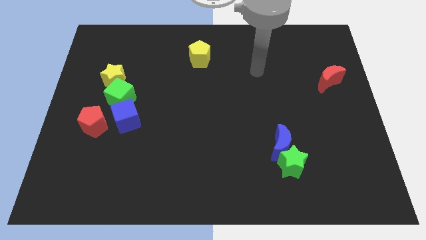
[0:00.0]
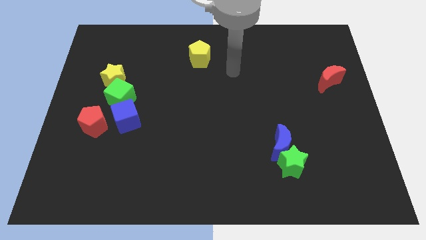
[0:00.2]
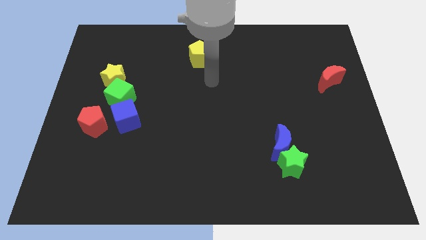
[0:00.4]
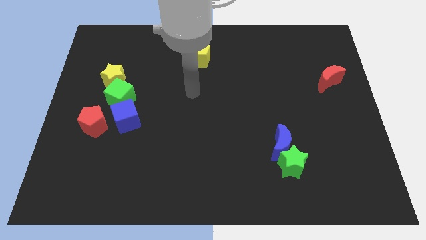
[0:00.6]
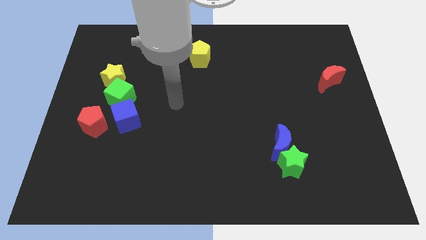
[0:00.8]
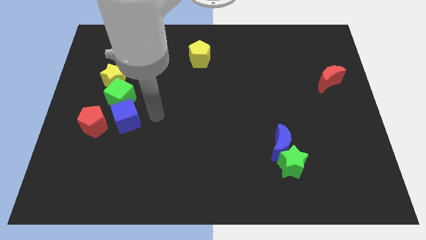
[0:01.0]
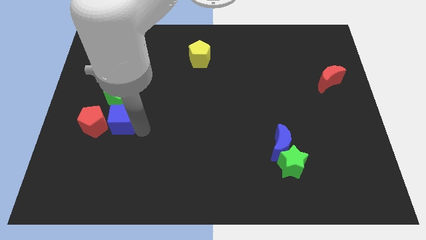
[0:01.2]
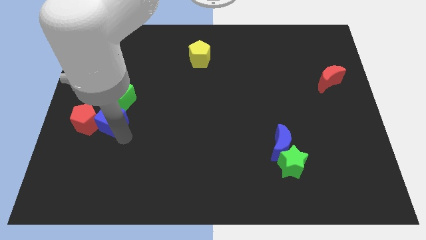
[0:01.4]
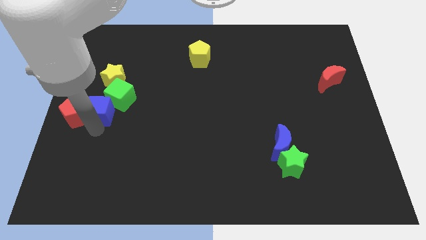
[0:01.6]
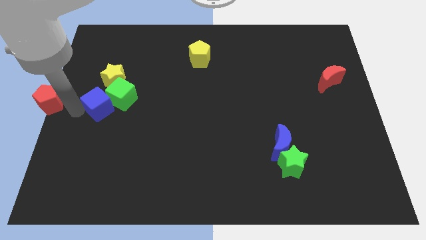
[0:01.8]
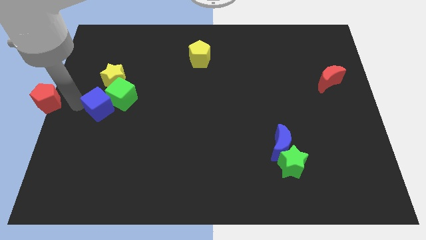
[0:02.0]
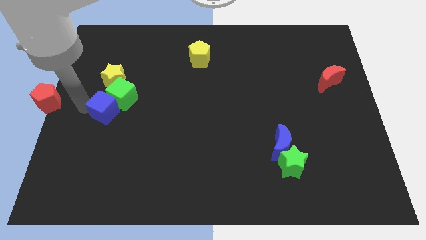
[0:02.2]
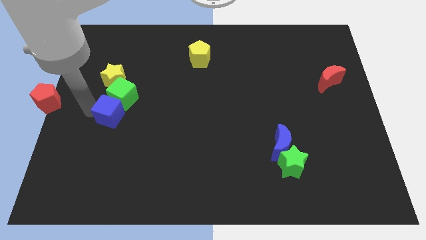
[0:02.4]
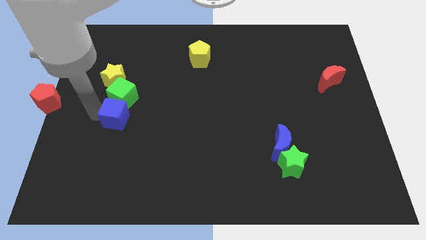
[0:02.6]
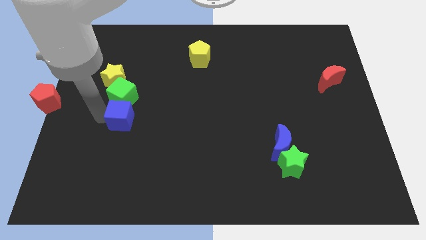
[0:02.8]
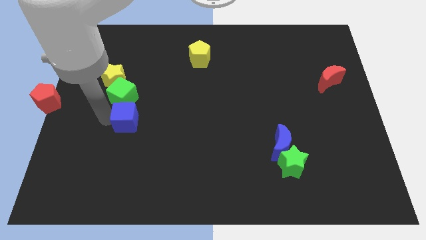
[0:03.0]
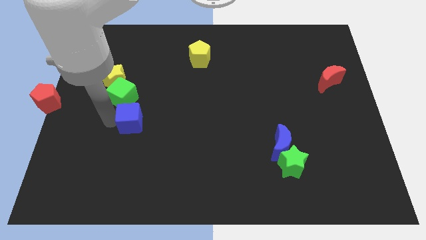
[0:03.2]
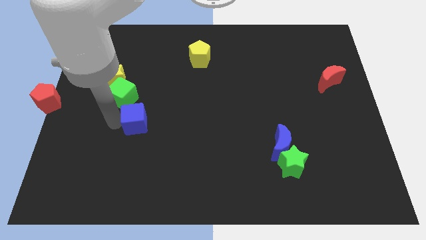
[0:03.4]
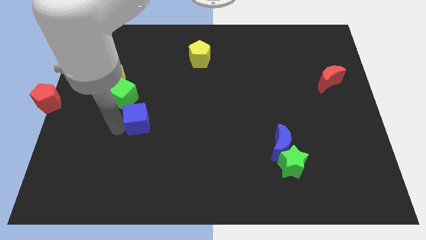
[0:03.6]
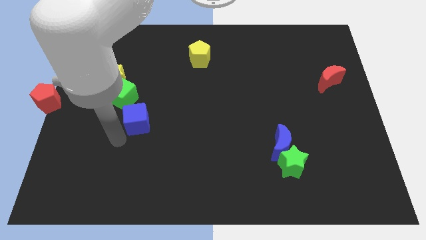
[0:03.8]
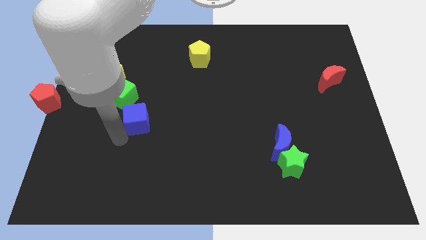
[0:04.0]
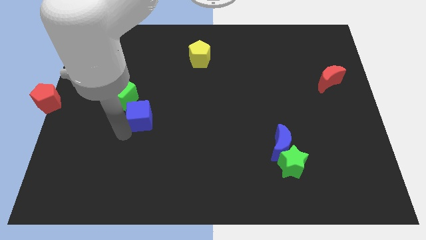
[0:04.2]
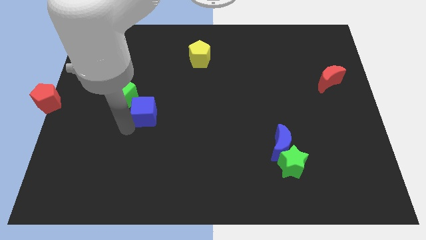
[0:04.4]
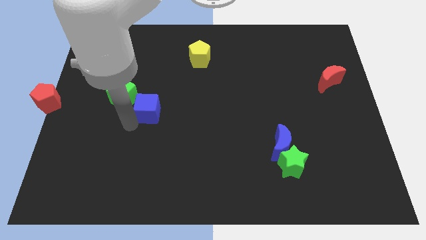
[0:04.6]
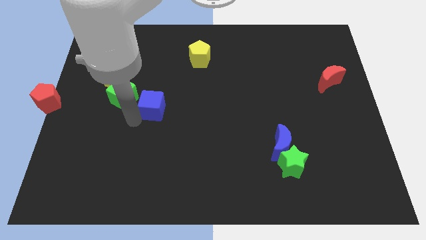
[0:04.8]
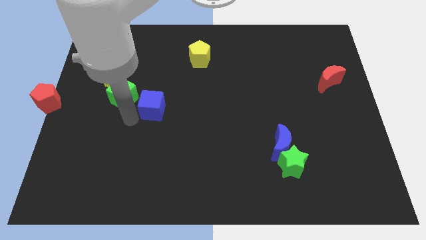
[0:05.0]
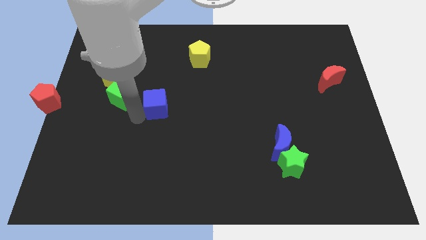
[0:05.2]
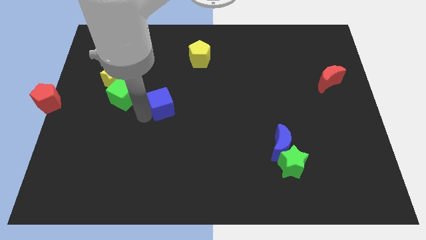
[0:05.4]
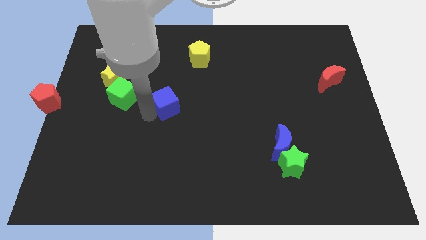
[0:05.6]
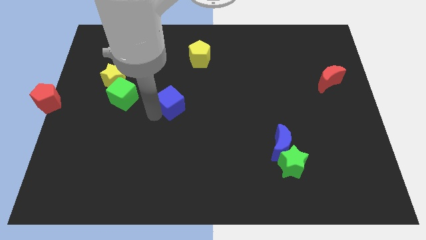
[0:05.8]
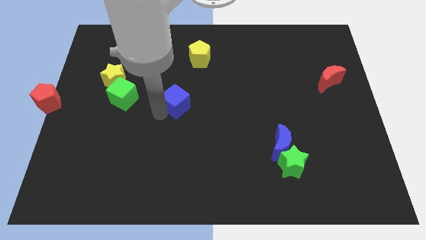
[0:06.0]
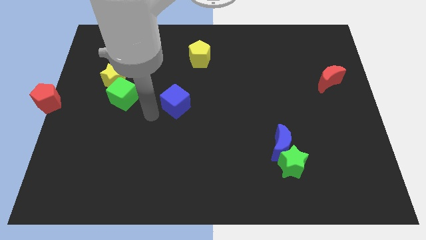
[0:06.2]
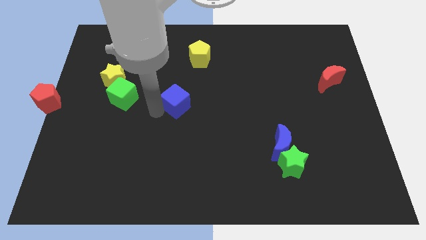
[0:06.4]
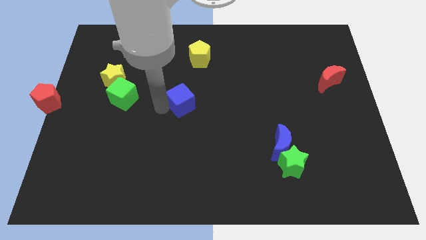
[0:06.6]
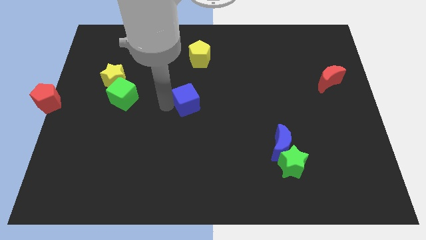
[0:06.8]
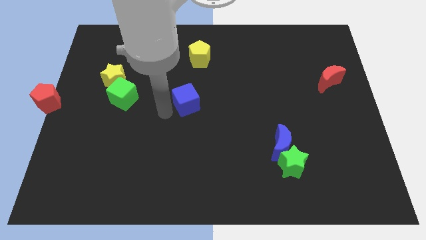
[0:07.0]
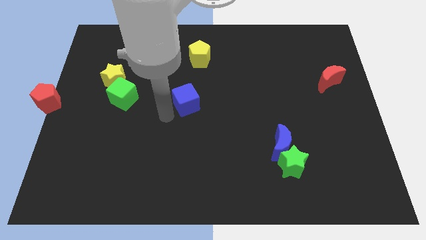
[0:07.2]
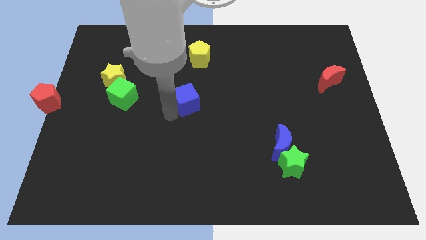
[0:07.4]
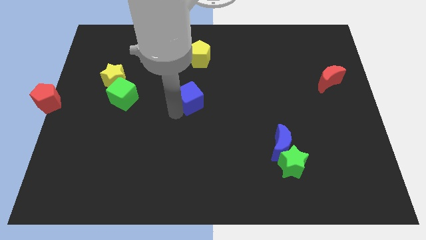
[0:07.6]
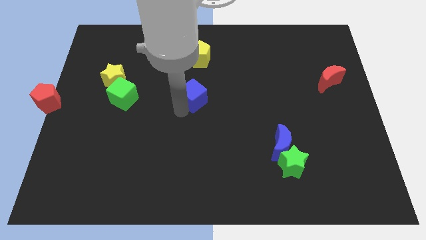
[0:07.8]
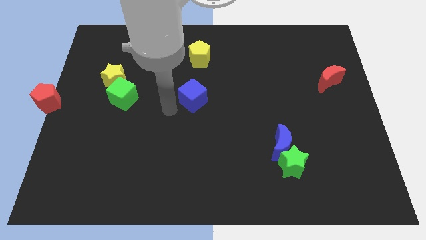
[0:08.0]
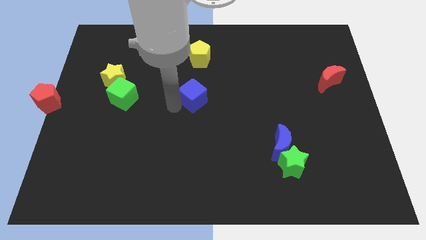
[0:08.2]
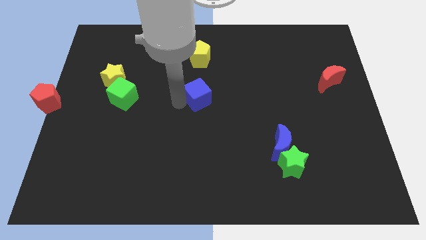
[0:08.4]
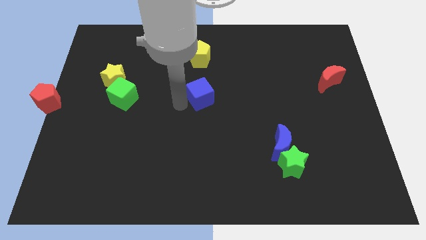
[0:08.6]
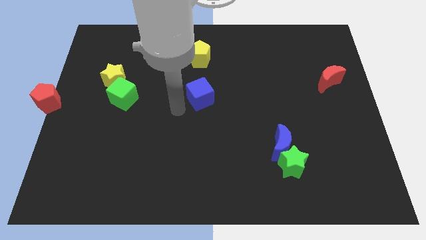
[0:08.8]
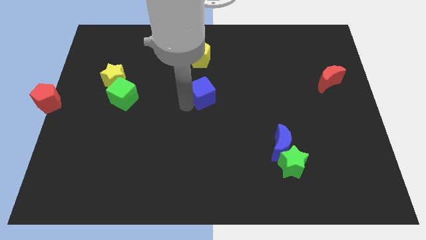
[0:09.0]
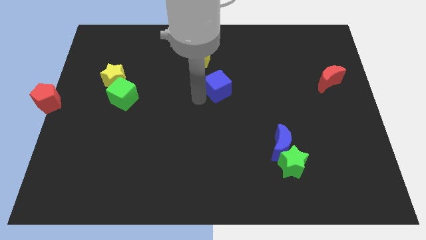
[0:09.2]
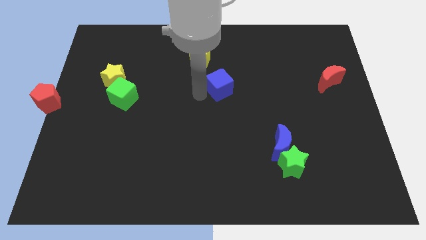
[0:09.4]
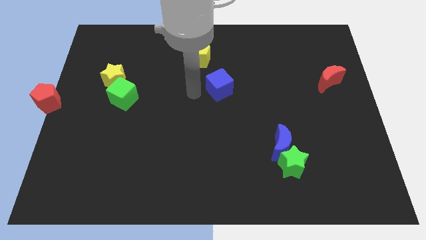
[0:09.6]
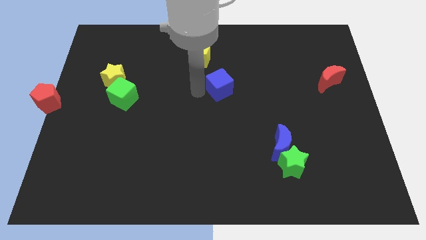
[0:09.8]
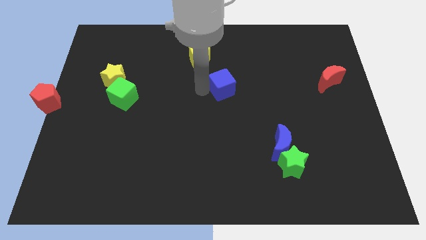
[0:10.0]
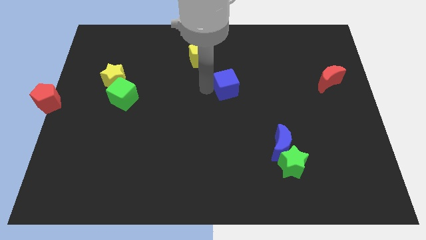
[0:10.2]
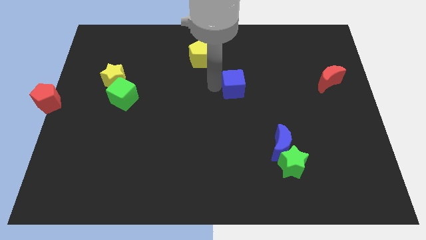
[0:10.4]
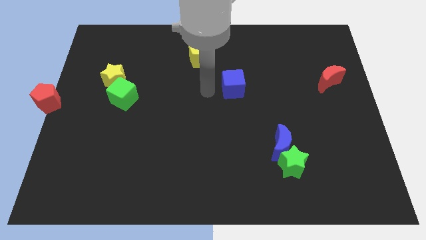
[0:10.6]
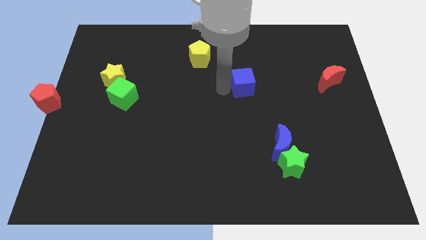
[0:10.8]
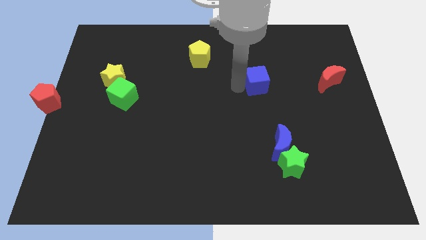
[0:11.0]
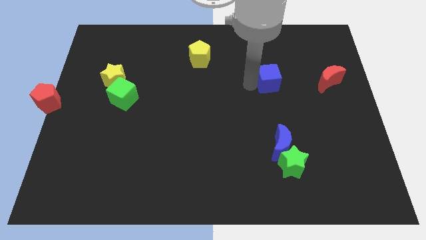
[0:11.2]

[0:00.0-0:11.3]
put the blue cube to the left of the red moon
